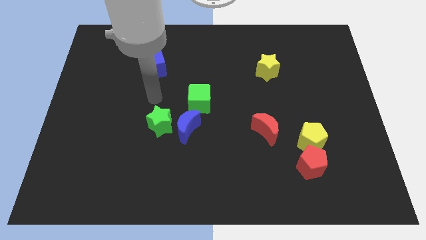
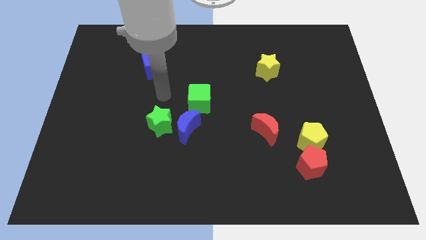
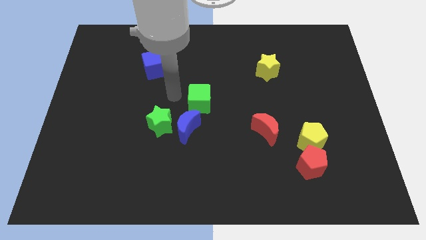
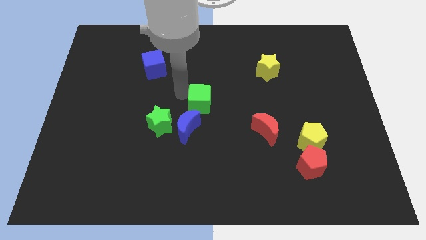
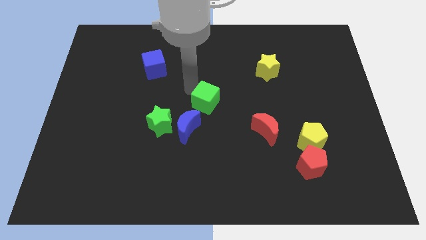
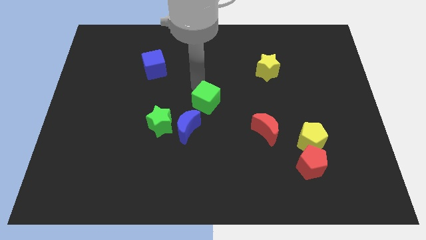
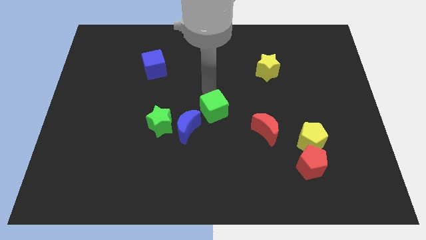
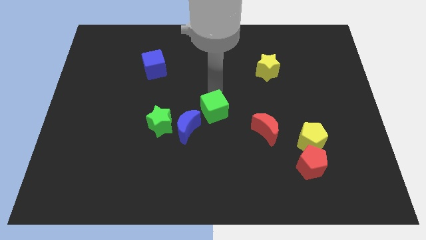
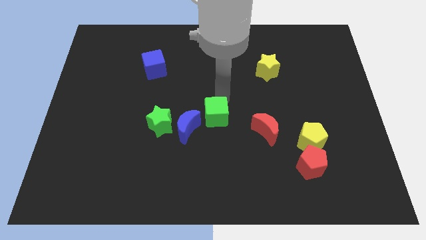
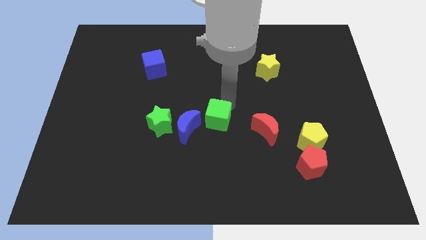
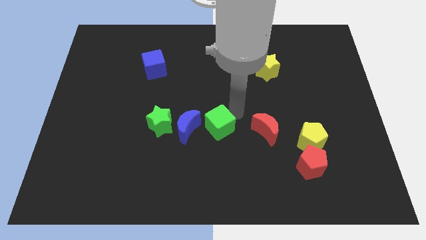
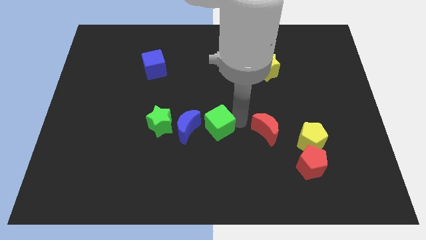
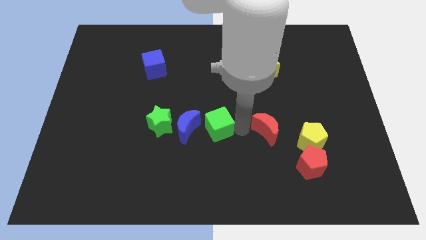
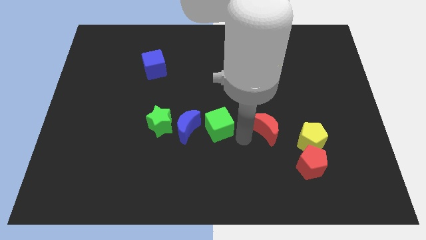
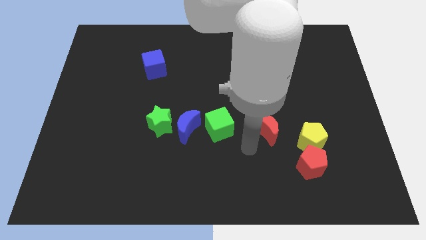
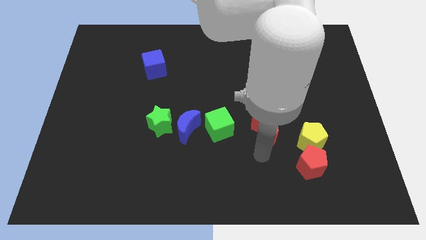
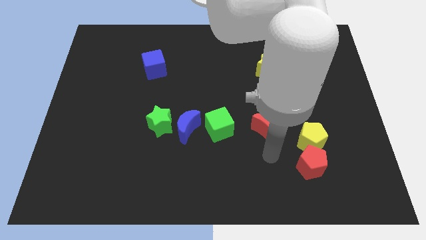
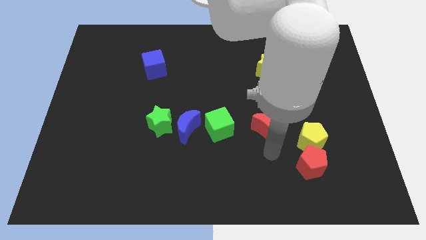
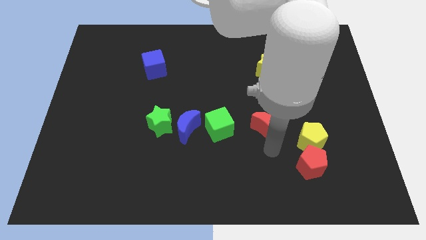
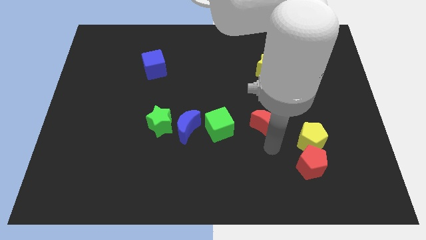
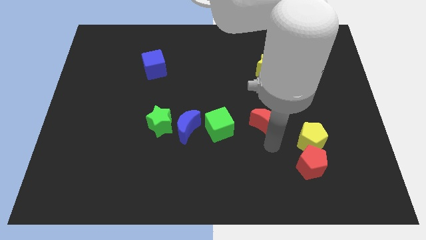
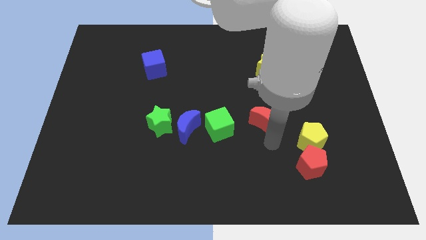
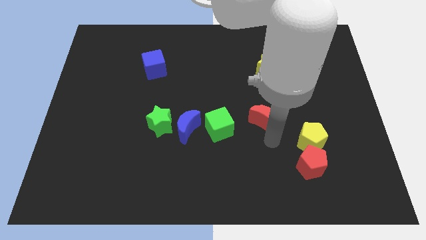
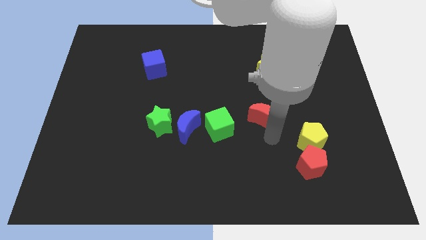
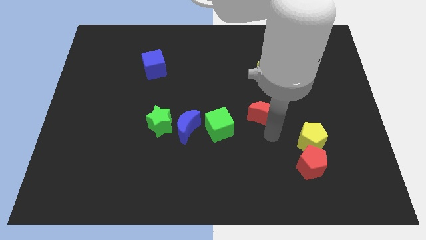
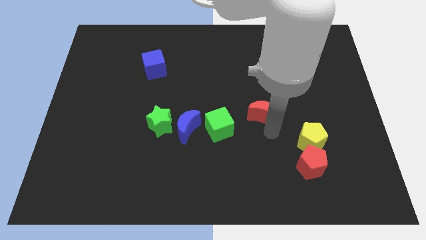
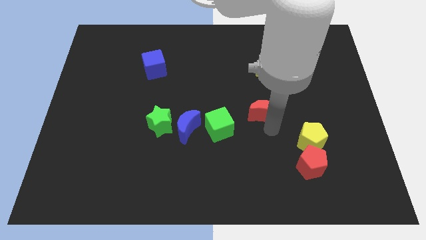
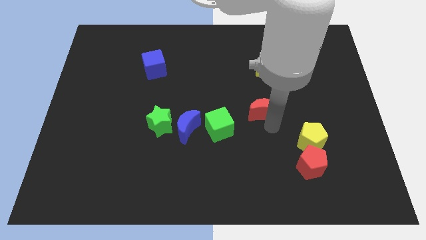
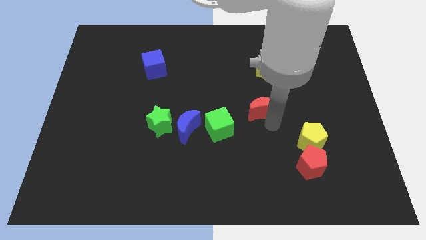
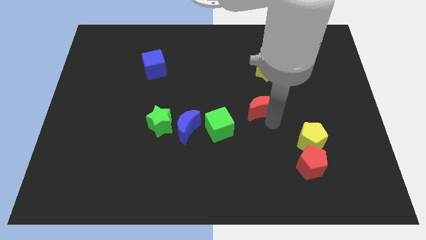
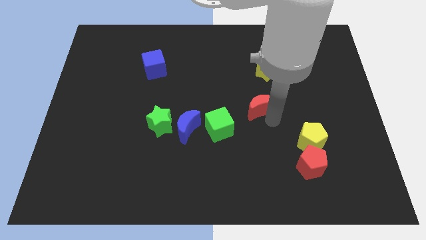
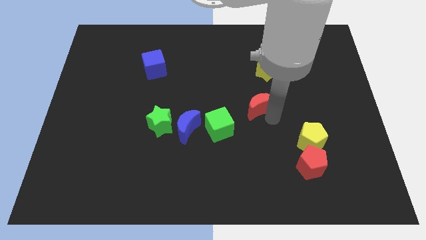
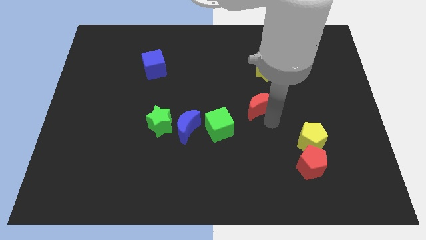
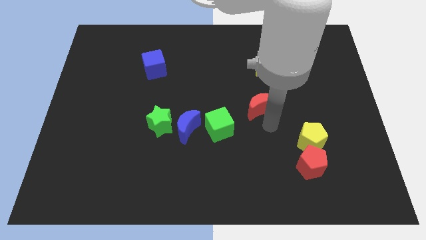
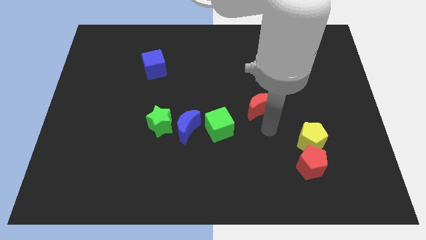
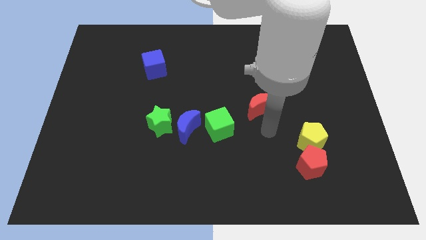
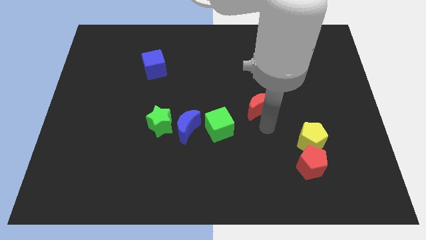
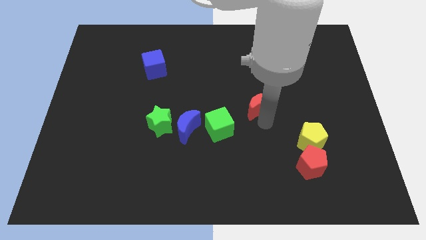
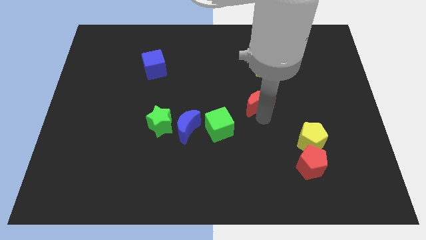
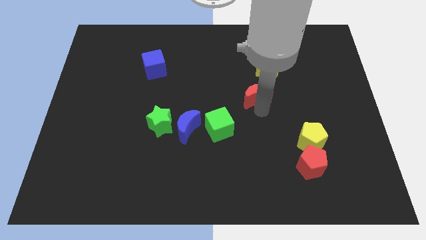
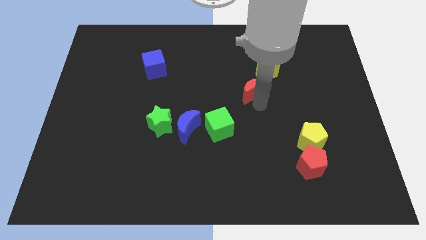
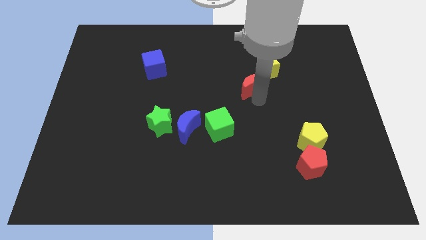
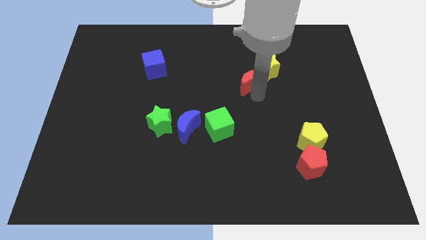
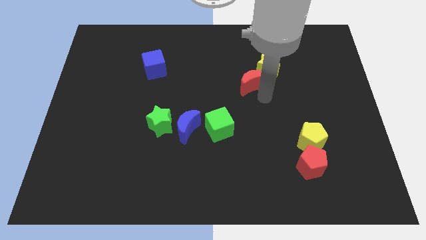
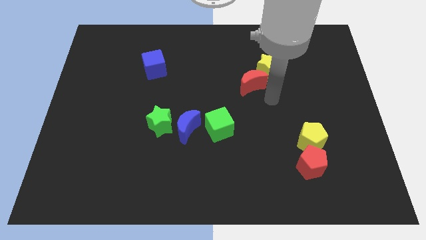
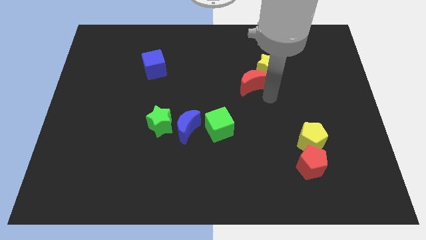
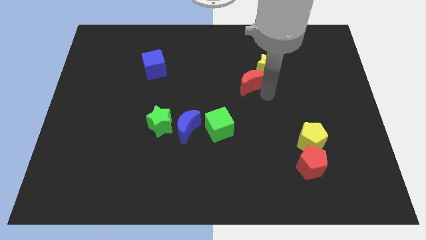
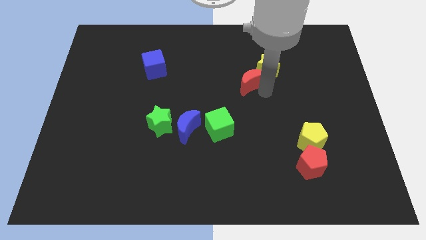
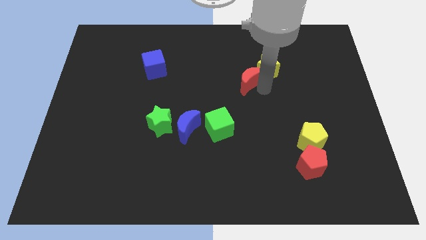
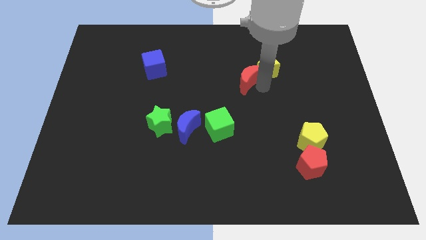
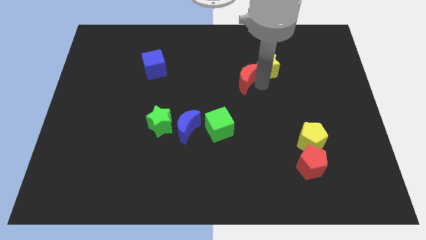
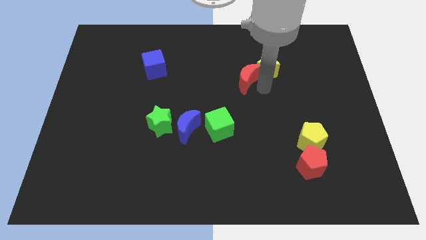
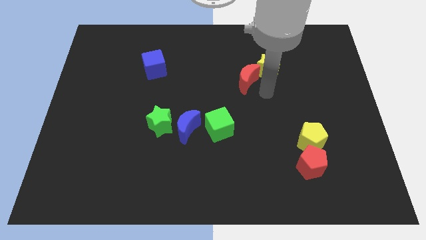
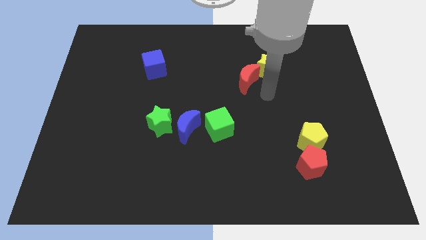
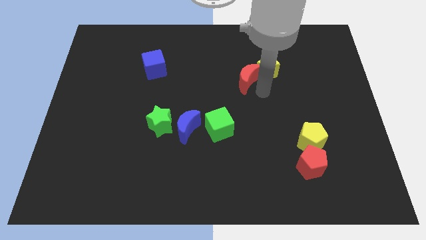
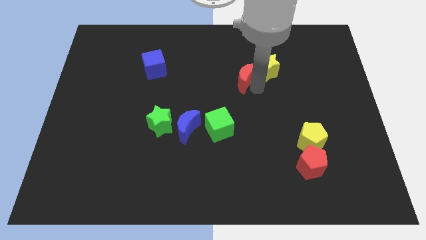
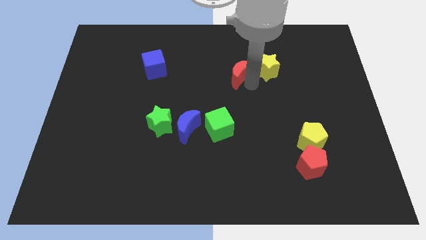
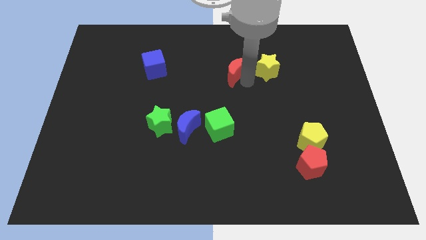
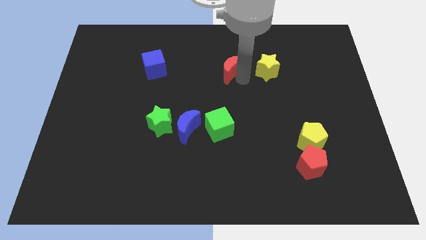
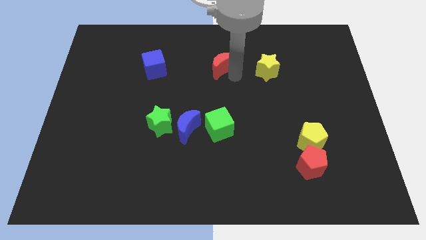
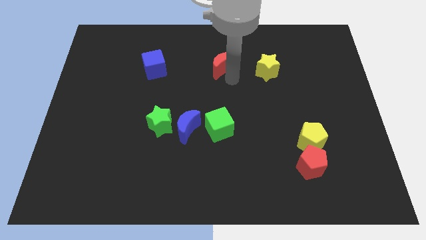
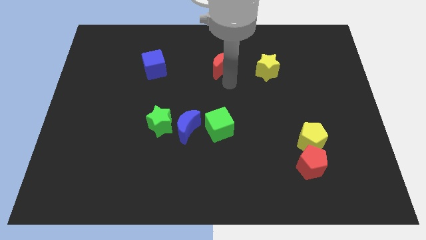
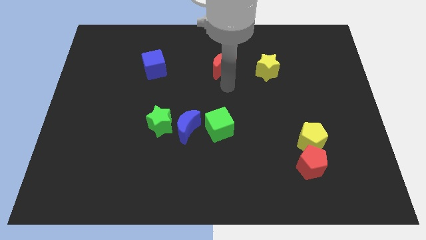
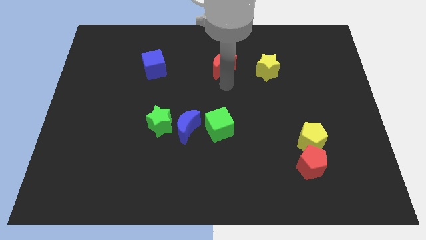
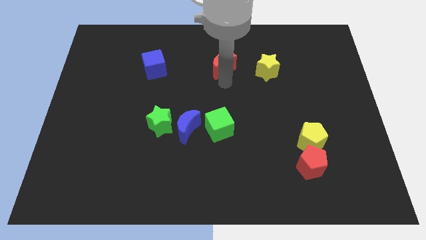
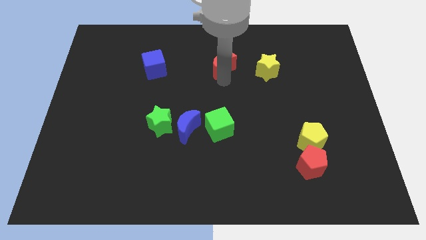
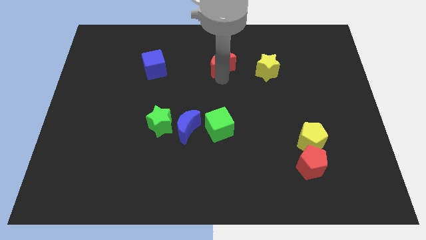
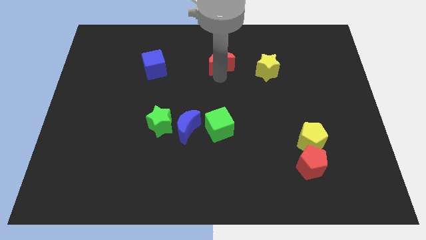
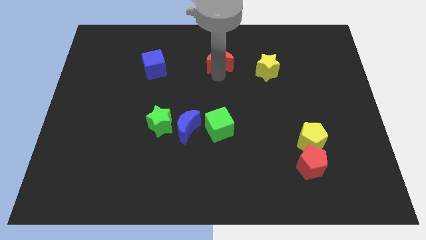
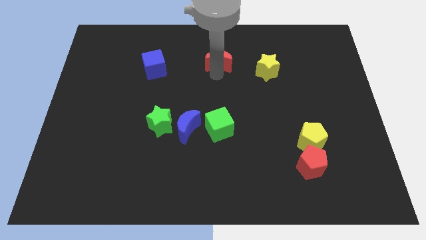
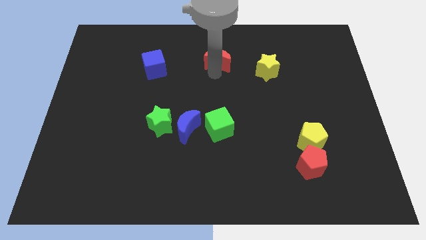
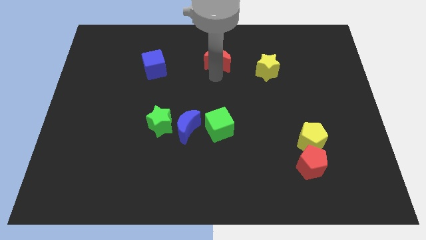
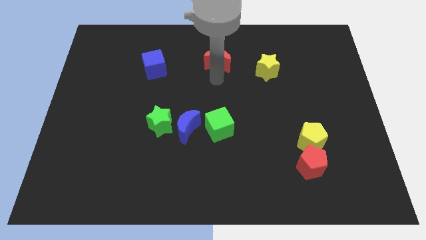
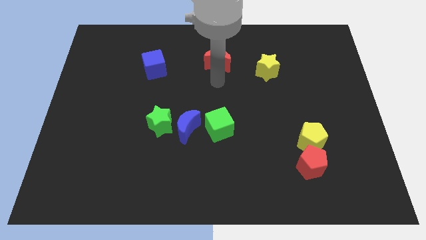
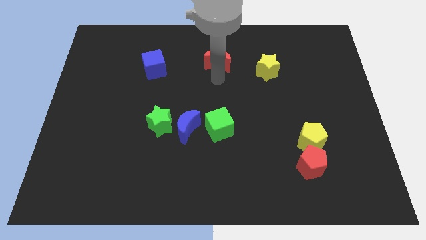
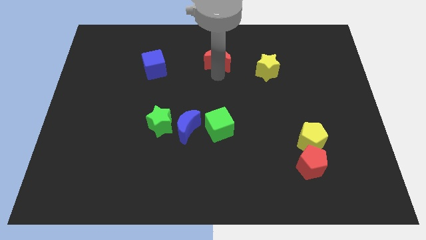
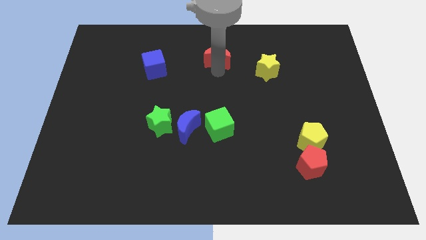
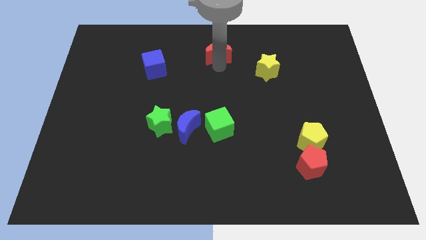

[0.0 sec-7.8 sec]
push the red moon to the top
